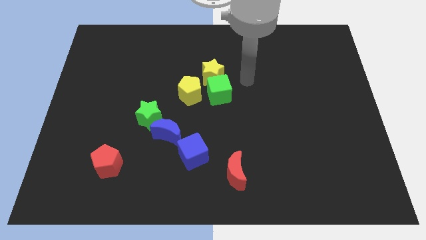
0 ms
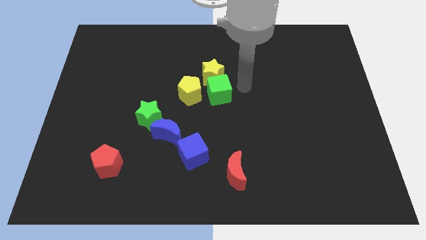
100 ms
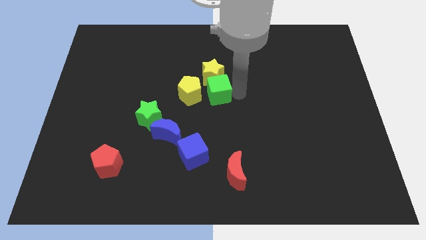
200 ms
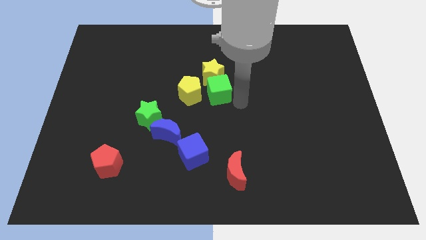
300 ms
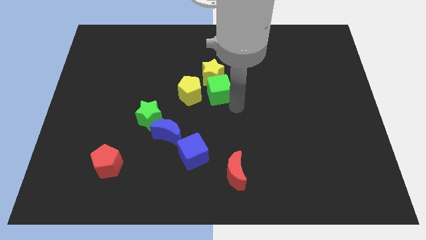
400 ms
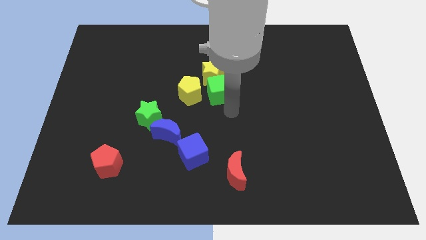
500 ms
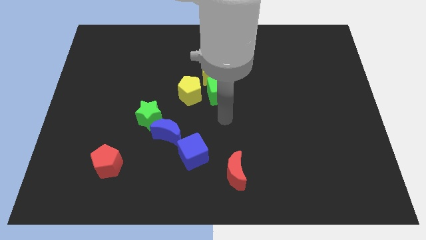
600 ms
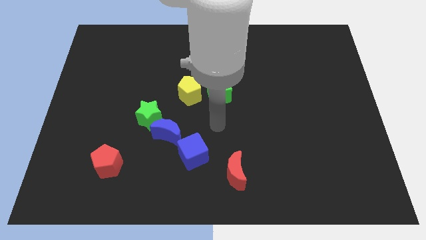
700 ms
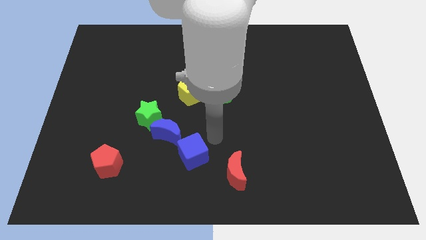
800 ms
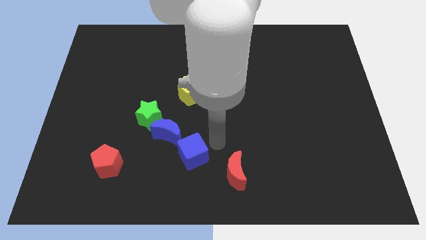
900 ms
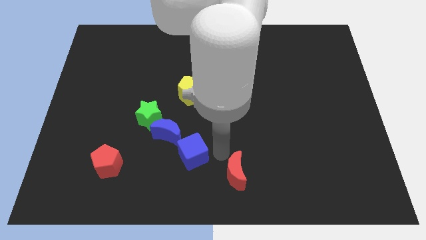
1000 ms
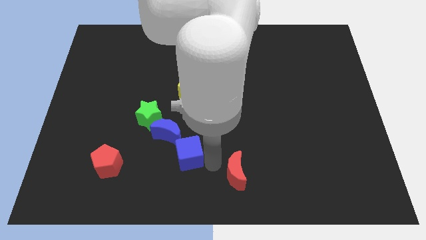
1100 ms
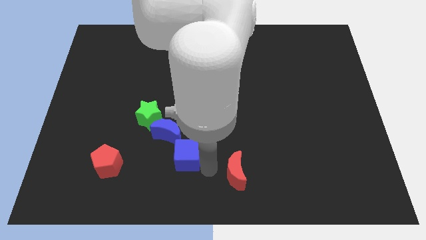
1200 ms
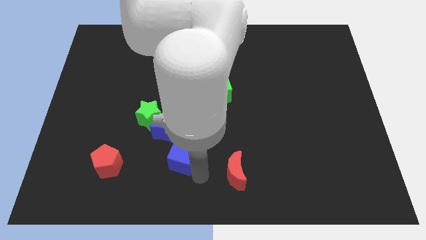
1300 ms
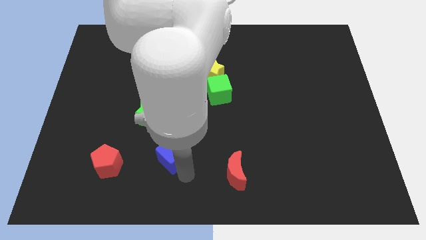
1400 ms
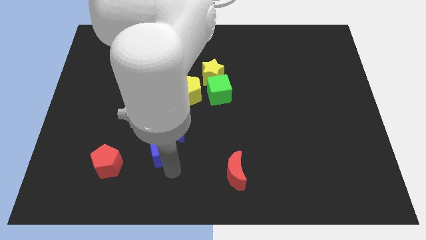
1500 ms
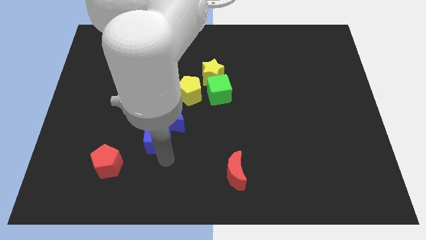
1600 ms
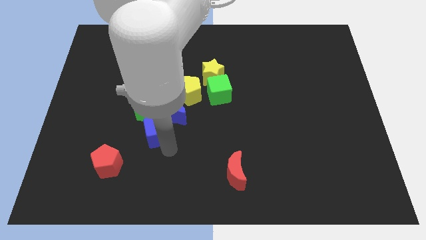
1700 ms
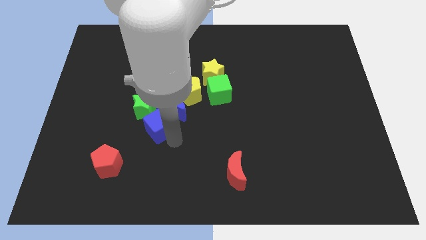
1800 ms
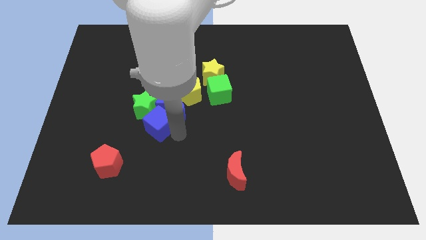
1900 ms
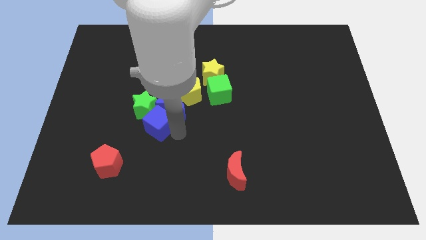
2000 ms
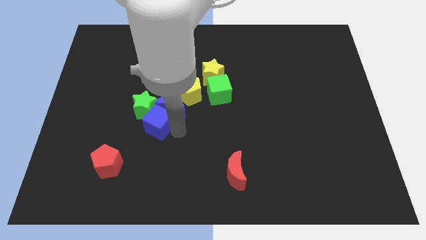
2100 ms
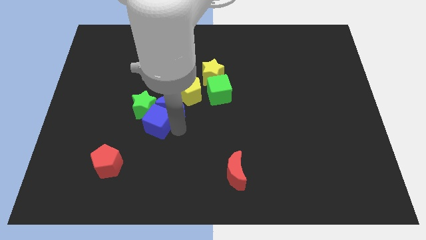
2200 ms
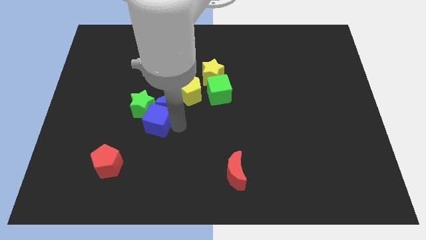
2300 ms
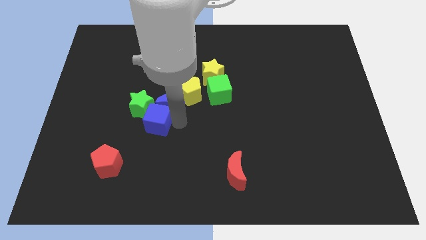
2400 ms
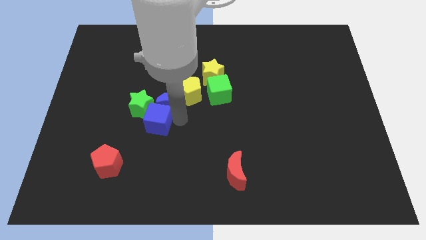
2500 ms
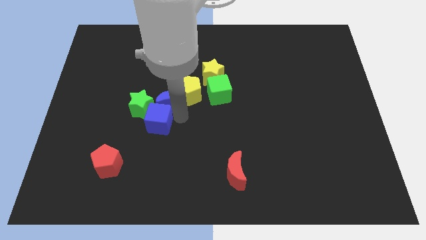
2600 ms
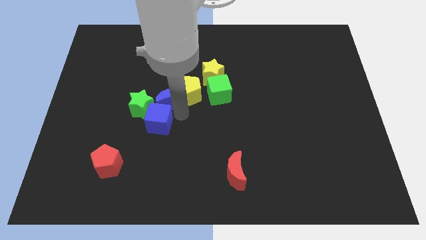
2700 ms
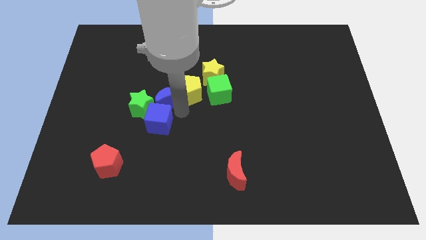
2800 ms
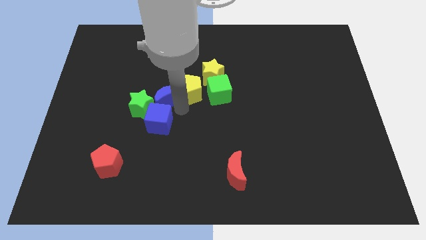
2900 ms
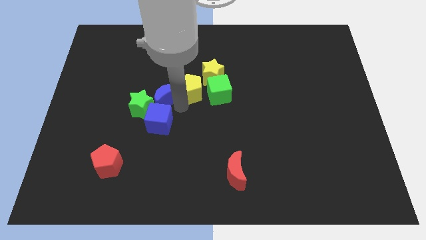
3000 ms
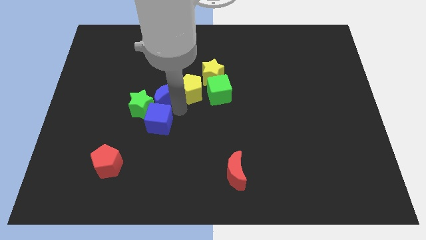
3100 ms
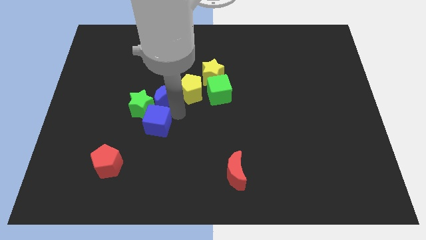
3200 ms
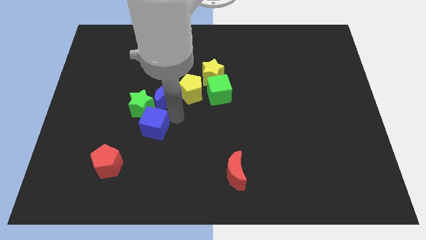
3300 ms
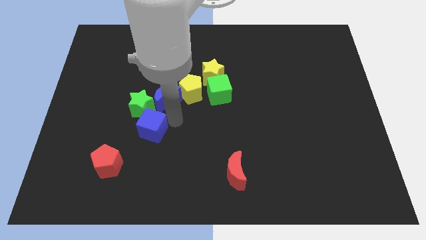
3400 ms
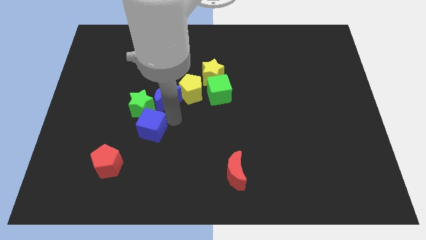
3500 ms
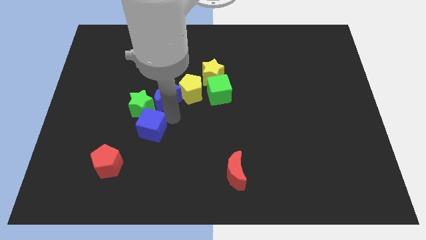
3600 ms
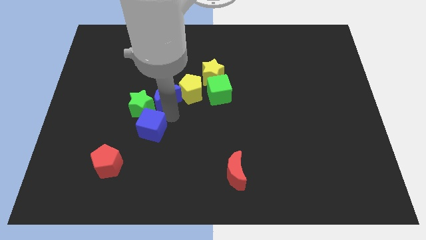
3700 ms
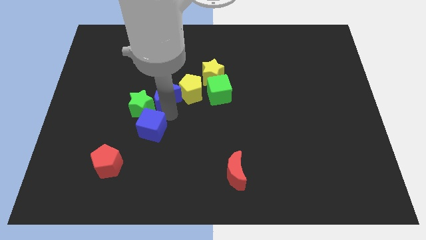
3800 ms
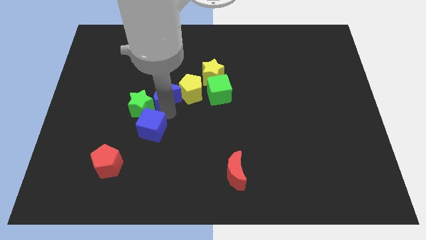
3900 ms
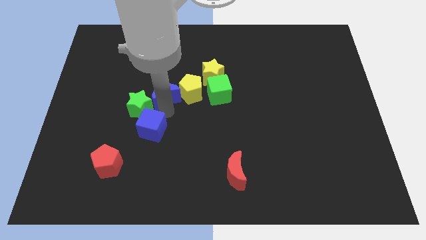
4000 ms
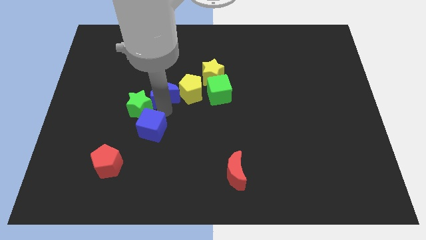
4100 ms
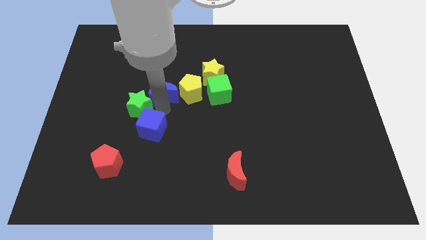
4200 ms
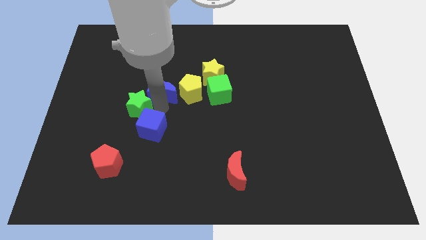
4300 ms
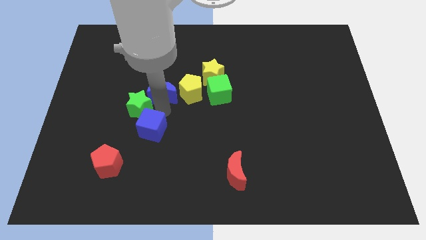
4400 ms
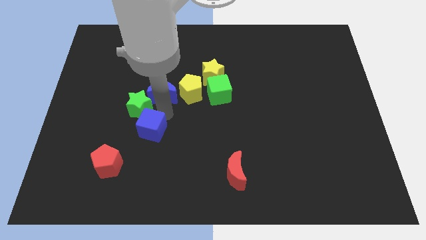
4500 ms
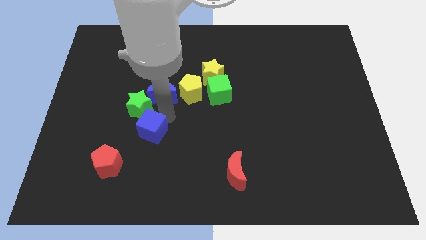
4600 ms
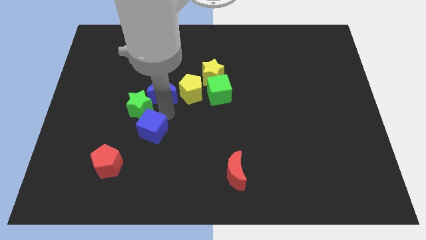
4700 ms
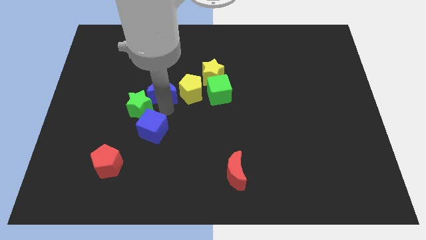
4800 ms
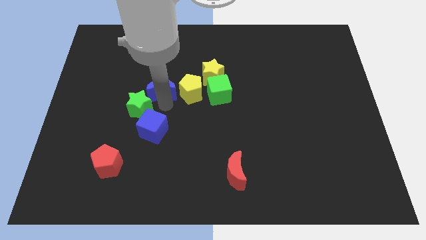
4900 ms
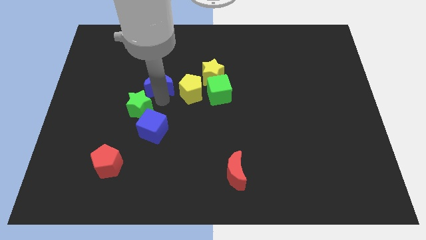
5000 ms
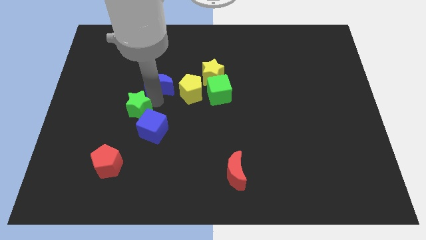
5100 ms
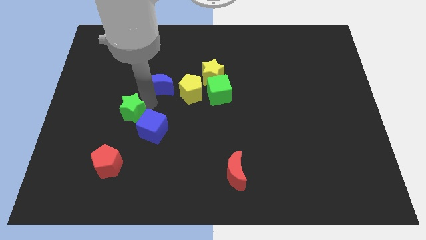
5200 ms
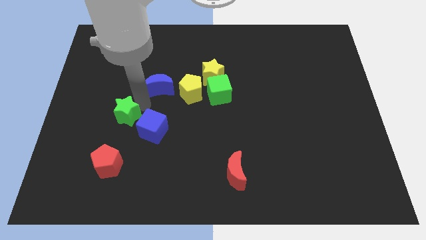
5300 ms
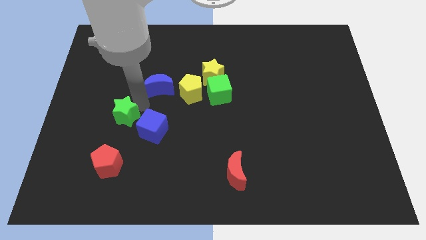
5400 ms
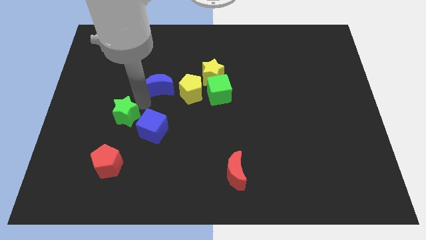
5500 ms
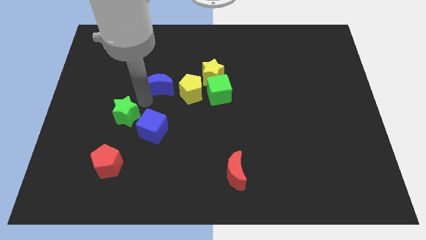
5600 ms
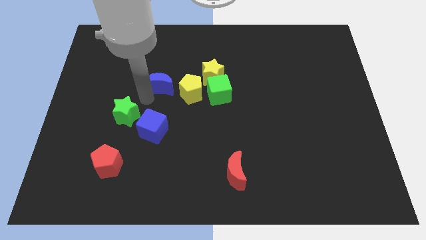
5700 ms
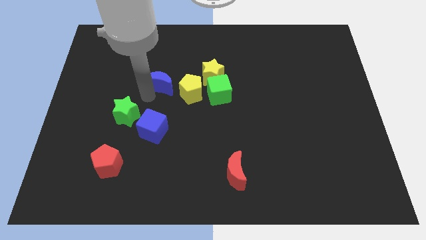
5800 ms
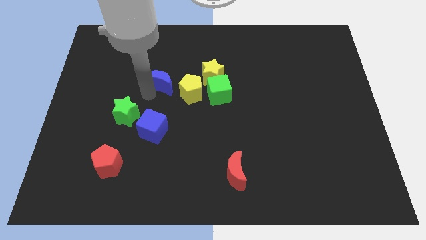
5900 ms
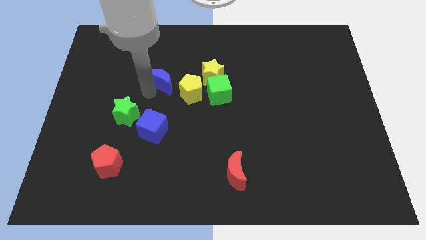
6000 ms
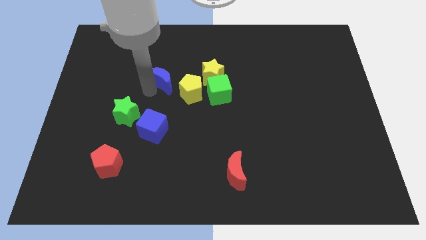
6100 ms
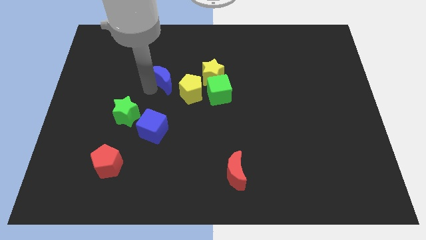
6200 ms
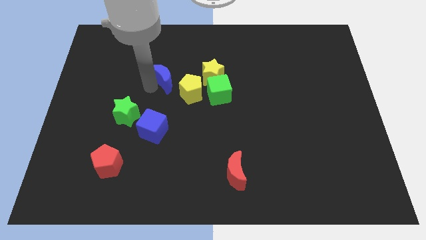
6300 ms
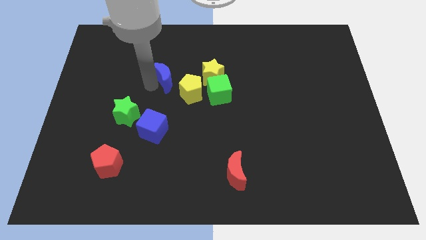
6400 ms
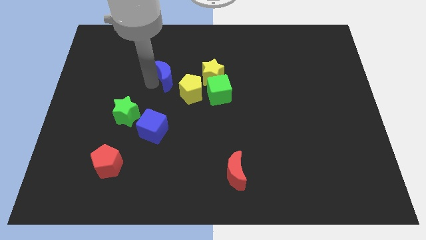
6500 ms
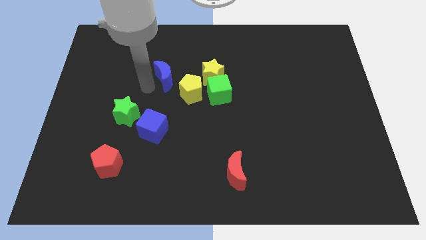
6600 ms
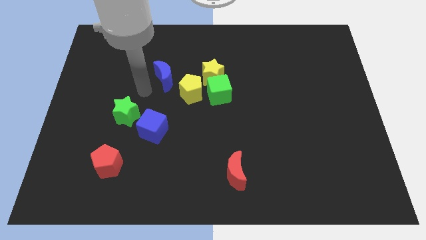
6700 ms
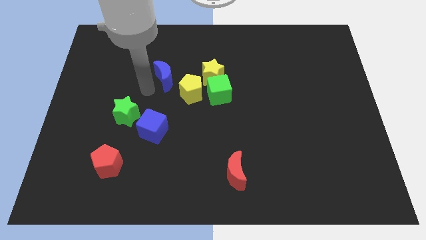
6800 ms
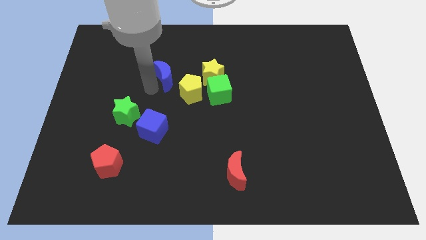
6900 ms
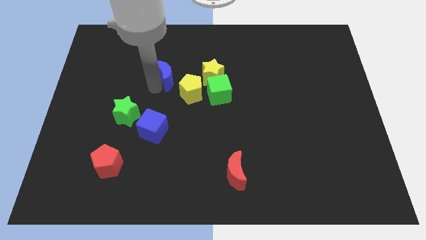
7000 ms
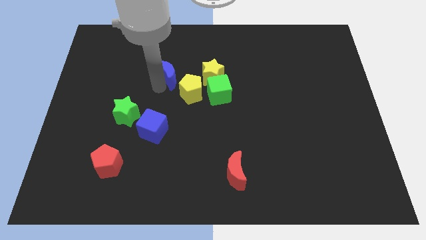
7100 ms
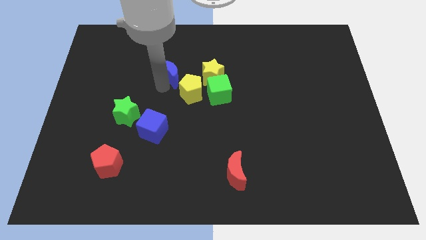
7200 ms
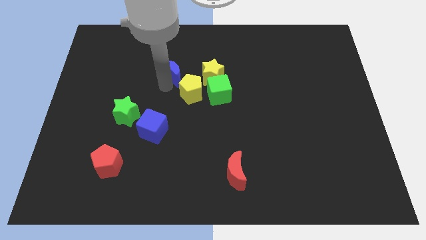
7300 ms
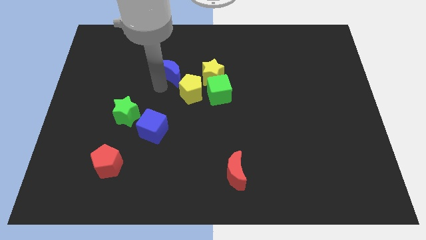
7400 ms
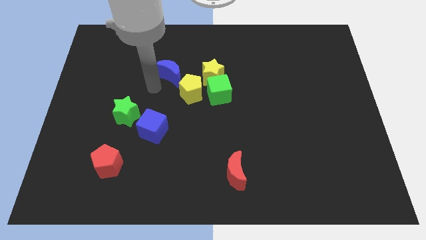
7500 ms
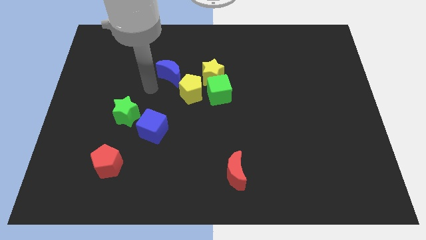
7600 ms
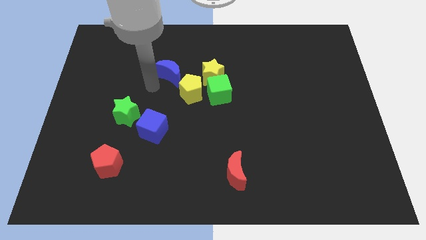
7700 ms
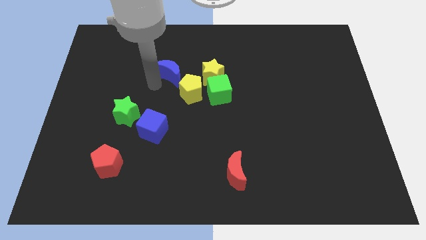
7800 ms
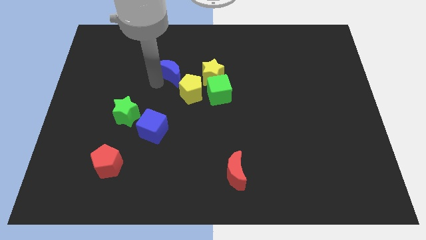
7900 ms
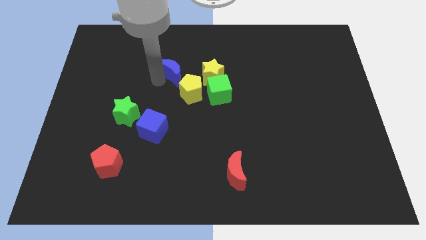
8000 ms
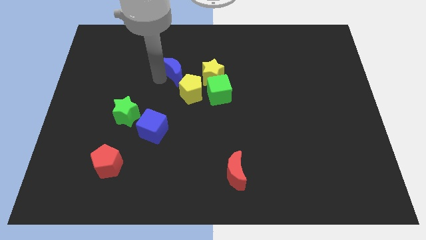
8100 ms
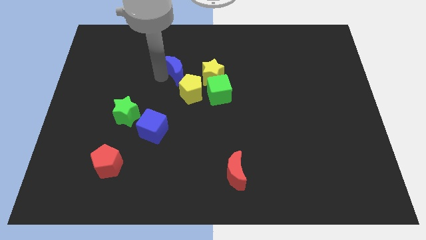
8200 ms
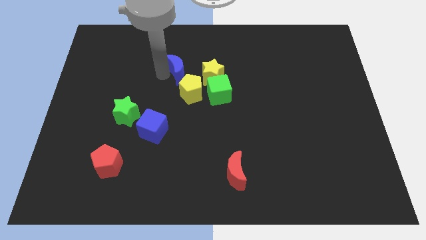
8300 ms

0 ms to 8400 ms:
move the blue moon to the top left side of the yellow star

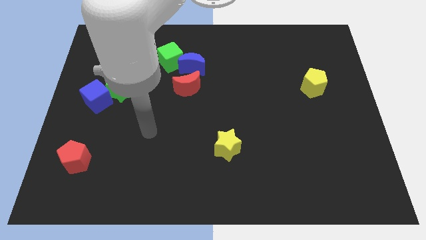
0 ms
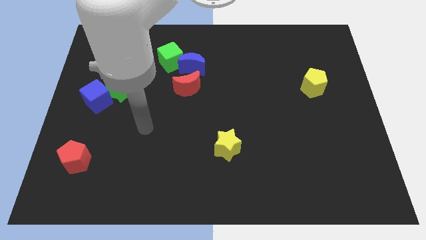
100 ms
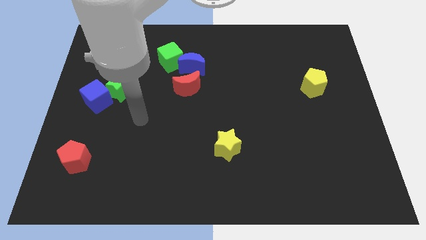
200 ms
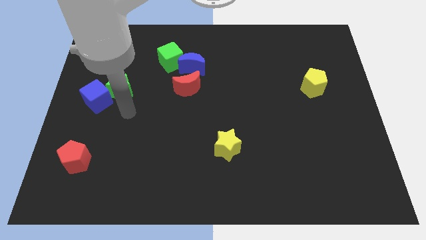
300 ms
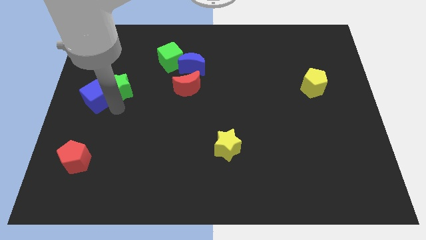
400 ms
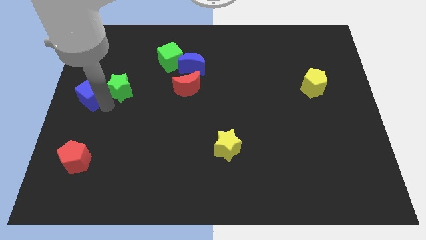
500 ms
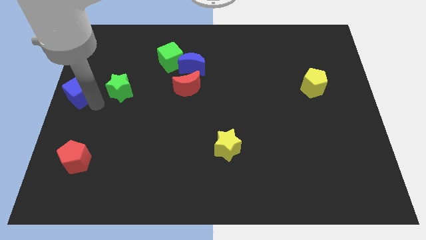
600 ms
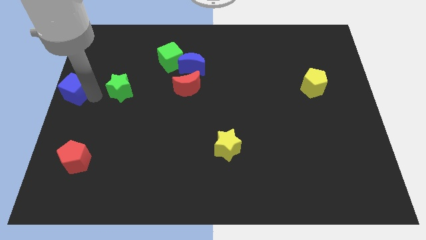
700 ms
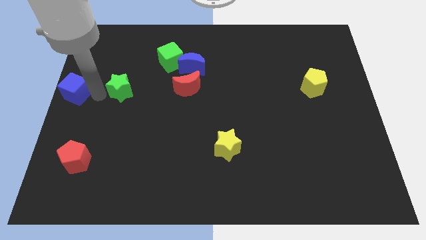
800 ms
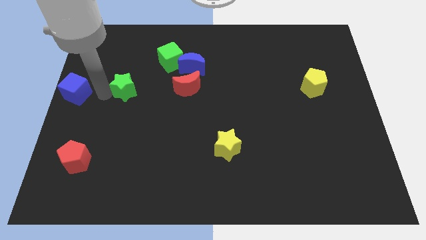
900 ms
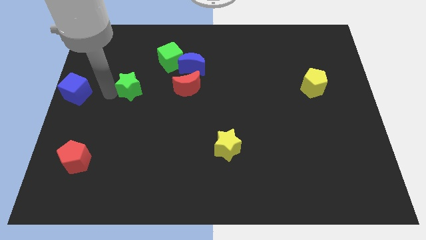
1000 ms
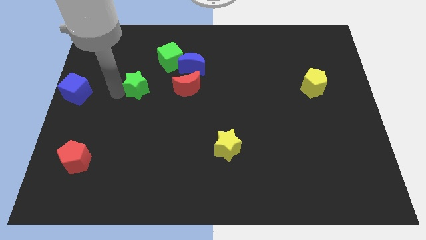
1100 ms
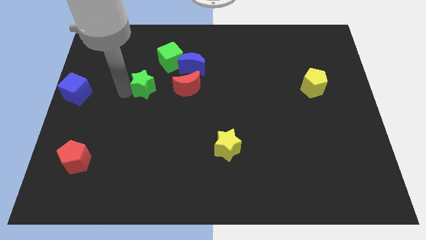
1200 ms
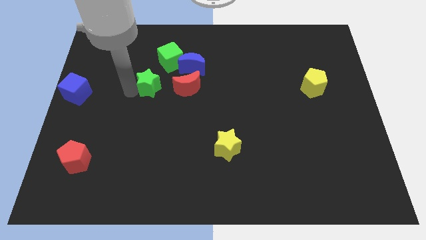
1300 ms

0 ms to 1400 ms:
push the green star diagonally down and to the left of the blue moon
